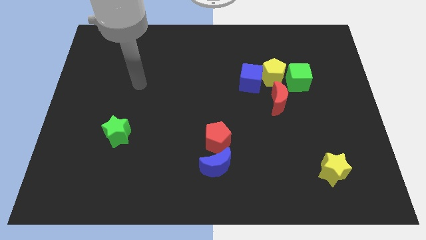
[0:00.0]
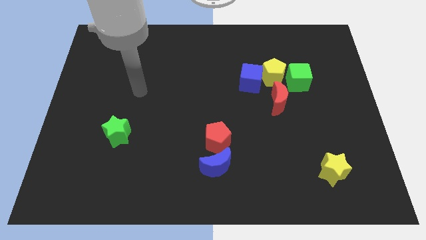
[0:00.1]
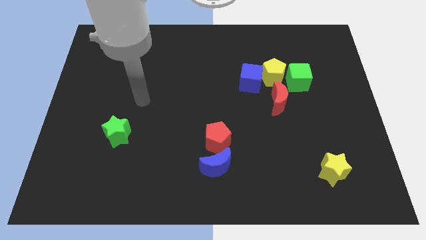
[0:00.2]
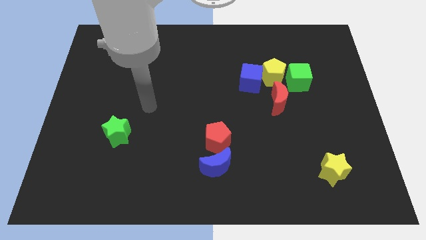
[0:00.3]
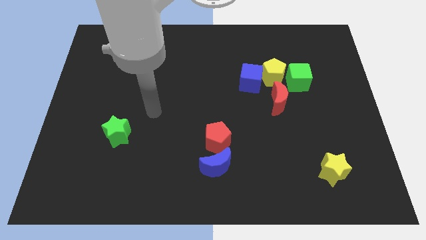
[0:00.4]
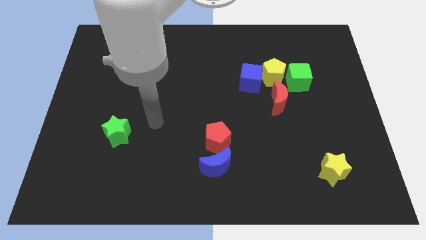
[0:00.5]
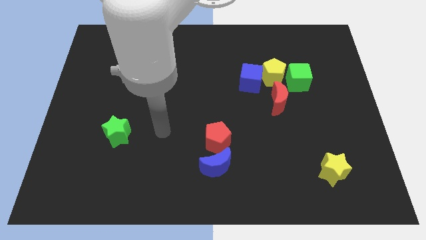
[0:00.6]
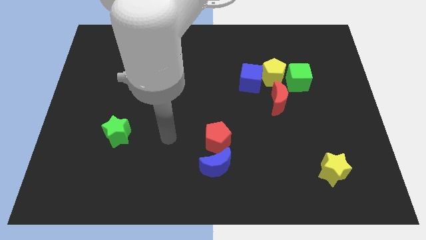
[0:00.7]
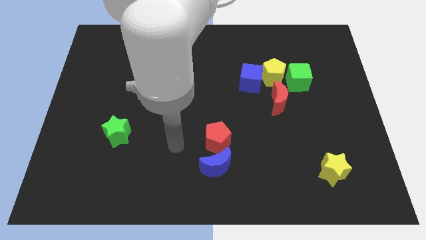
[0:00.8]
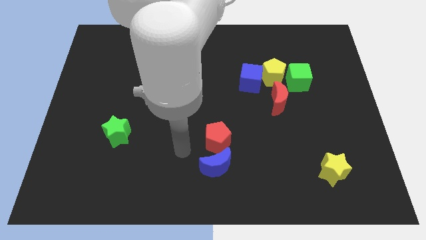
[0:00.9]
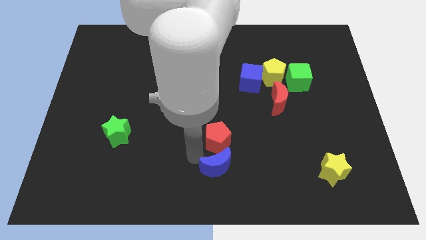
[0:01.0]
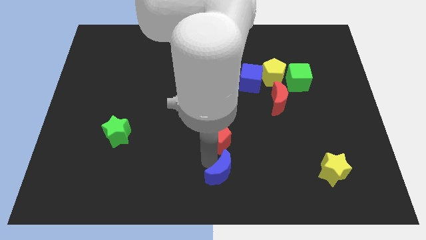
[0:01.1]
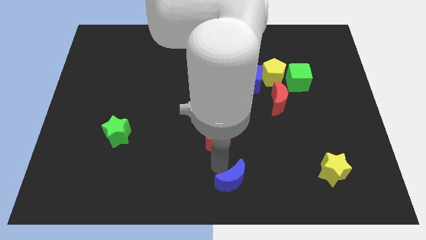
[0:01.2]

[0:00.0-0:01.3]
move the red pentagon away from the blue moon

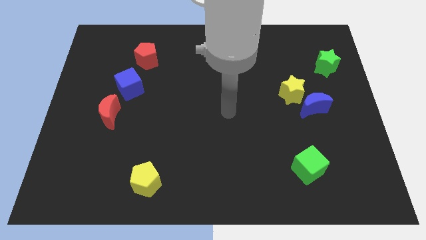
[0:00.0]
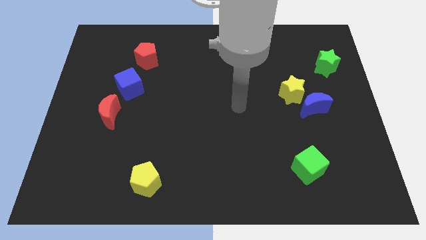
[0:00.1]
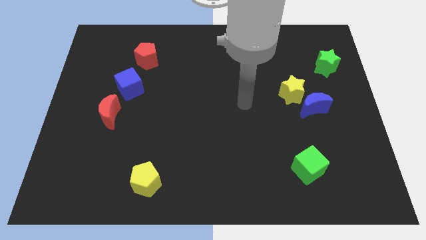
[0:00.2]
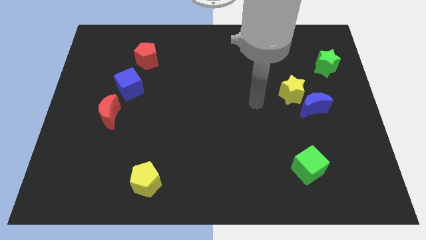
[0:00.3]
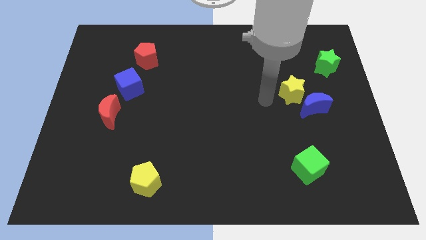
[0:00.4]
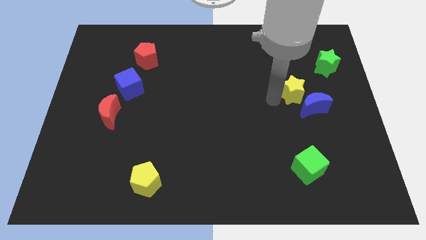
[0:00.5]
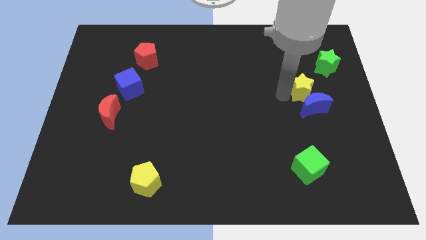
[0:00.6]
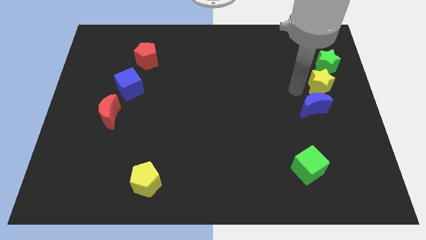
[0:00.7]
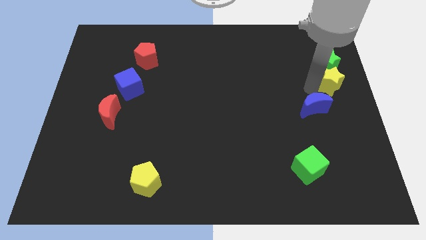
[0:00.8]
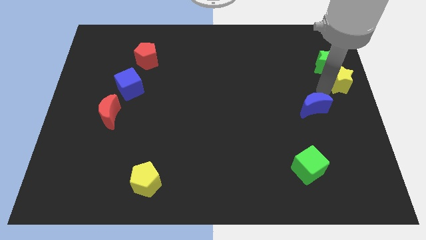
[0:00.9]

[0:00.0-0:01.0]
separate the blue moon from the yellow star

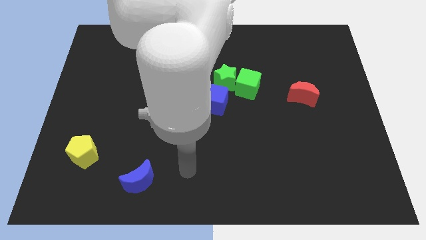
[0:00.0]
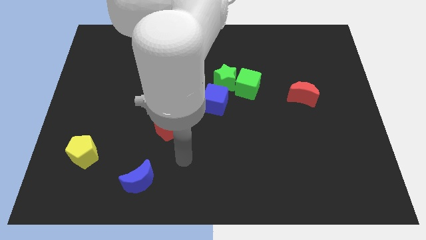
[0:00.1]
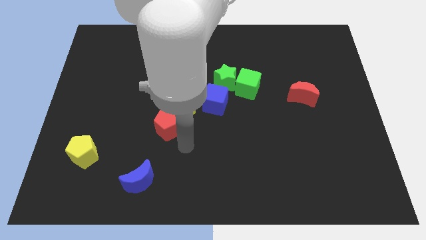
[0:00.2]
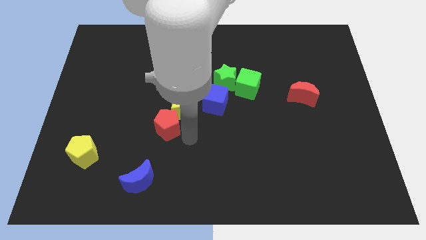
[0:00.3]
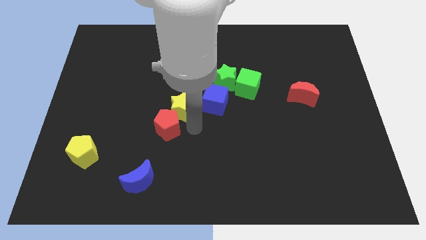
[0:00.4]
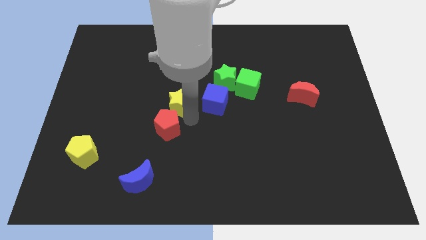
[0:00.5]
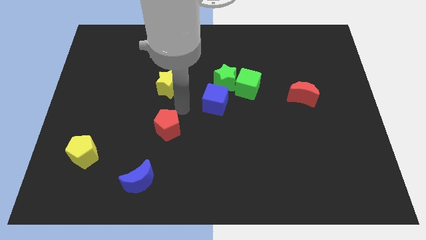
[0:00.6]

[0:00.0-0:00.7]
separate the red pentagon from the yellow star

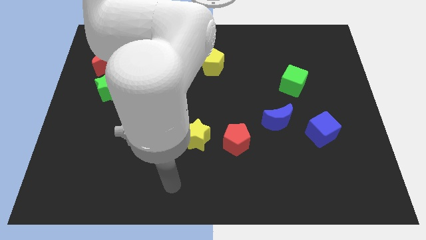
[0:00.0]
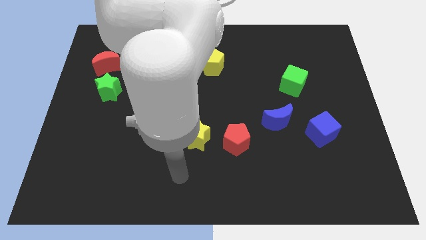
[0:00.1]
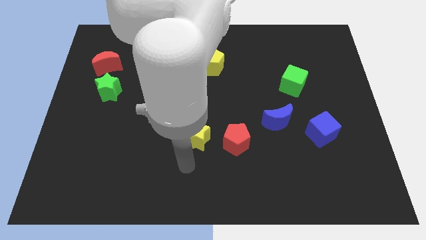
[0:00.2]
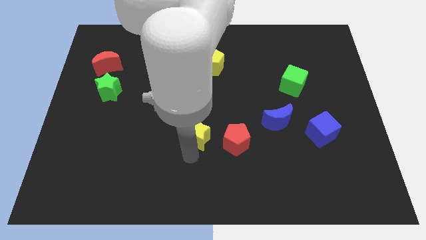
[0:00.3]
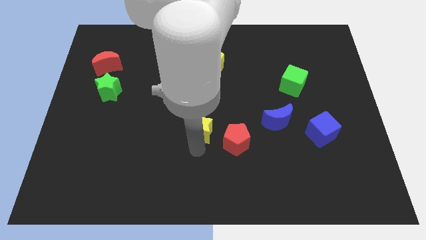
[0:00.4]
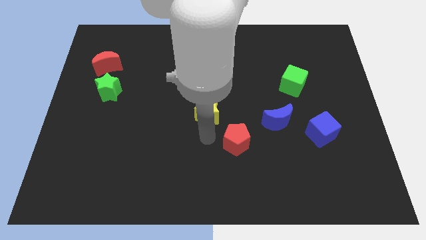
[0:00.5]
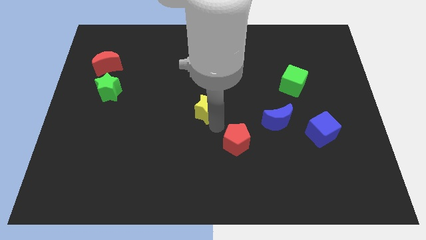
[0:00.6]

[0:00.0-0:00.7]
pull the red pentagon apart from the yellow star

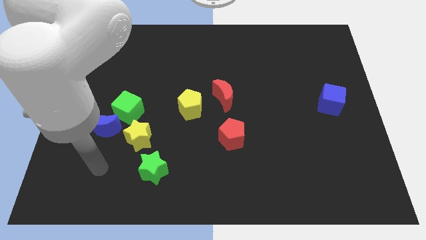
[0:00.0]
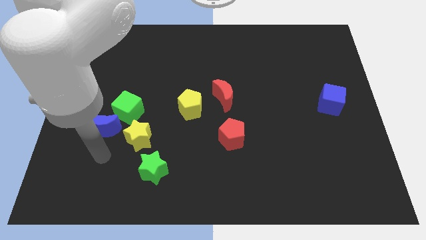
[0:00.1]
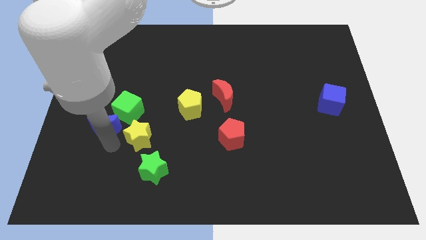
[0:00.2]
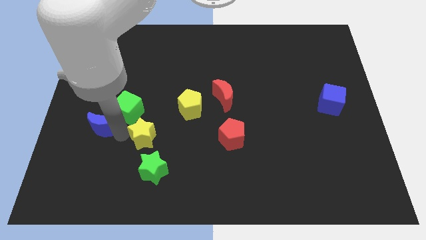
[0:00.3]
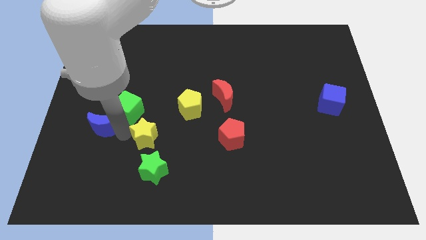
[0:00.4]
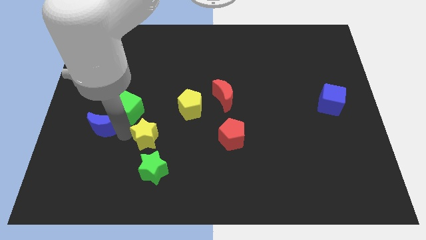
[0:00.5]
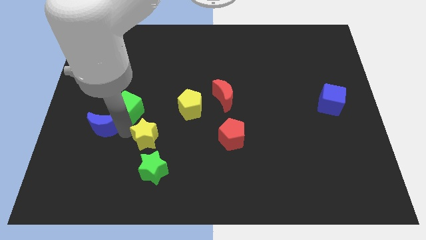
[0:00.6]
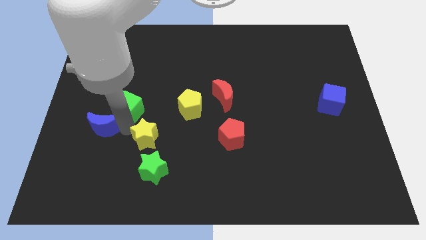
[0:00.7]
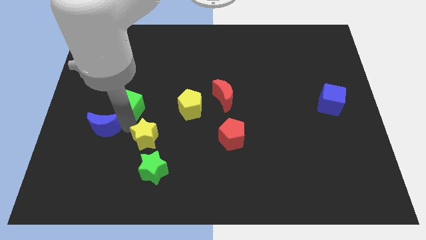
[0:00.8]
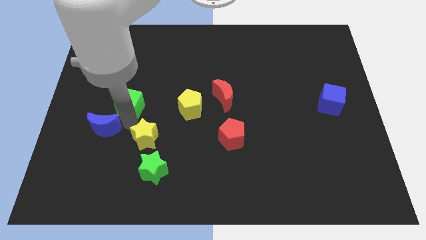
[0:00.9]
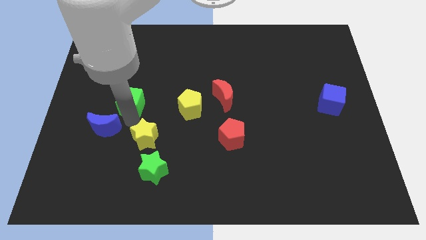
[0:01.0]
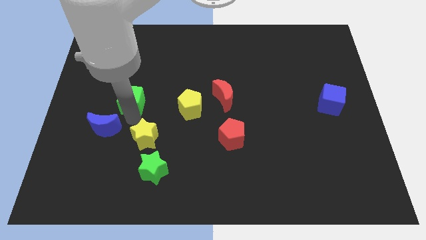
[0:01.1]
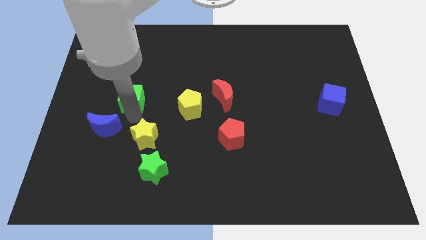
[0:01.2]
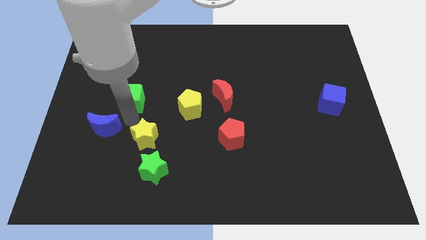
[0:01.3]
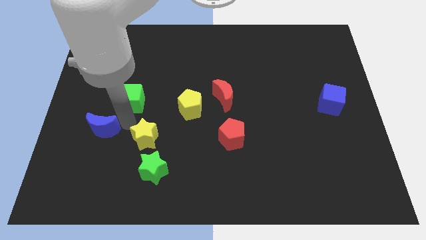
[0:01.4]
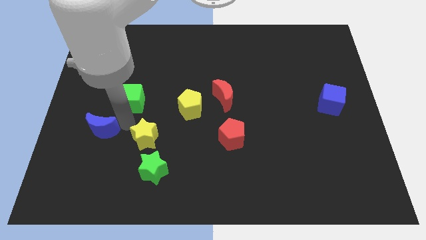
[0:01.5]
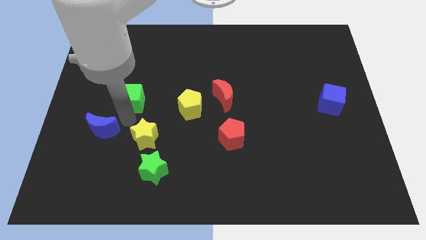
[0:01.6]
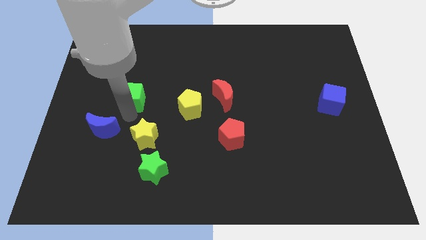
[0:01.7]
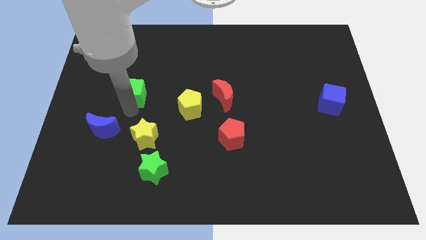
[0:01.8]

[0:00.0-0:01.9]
move the green cube away from the blue moon and yellow star

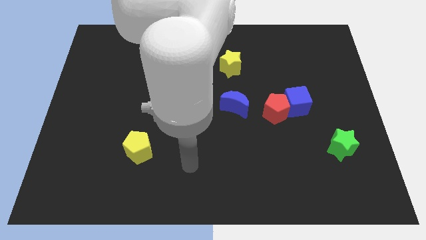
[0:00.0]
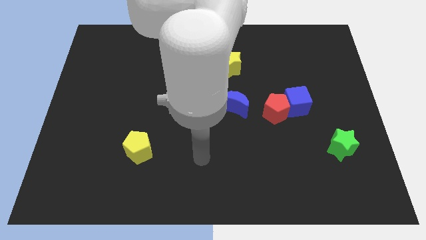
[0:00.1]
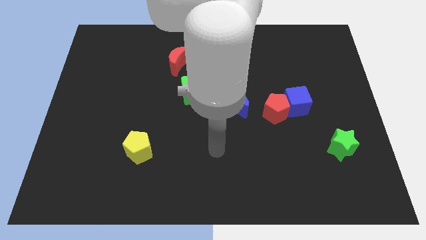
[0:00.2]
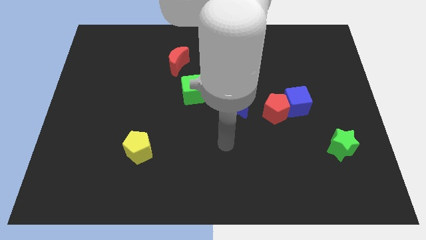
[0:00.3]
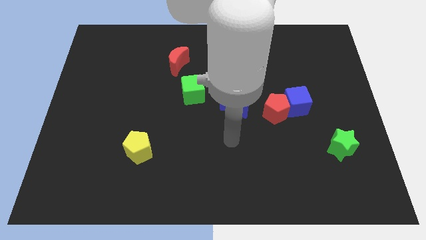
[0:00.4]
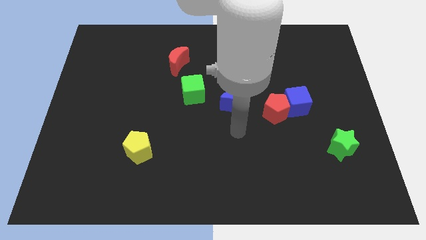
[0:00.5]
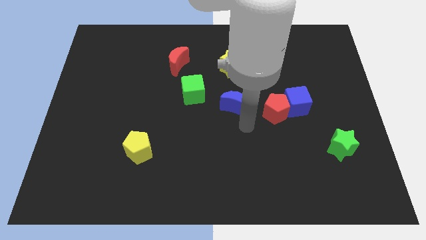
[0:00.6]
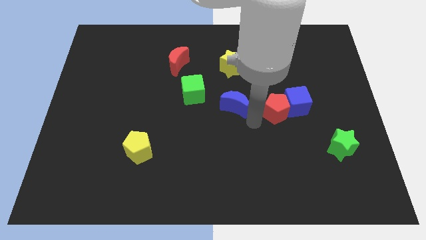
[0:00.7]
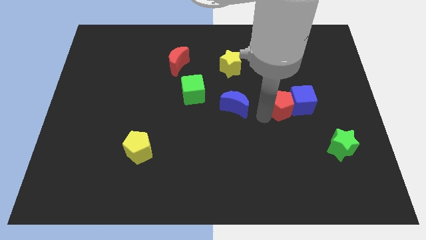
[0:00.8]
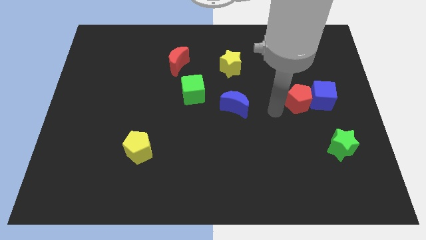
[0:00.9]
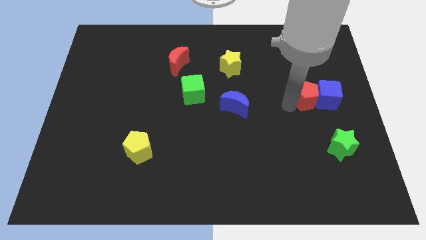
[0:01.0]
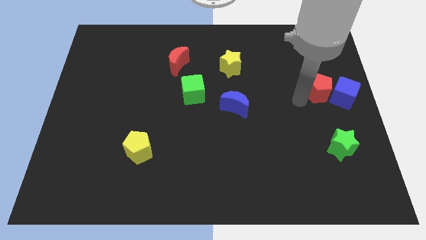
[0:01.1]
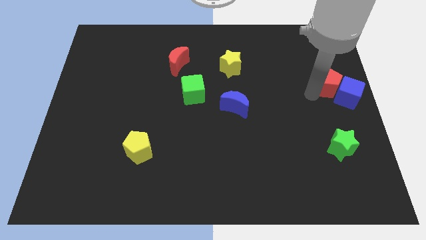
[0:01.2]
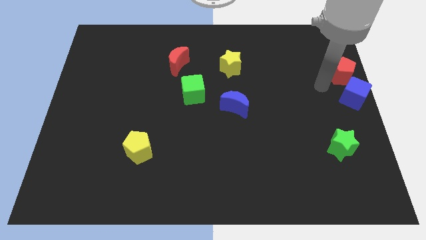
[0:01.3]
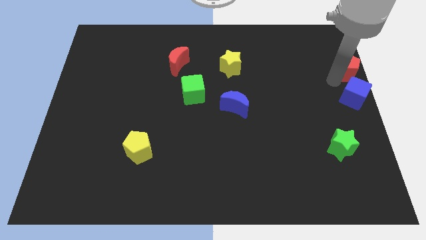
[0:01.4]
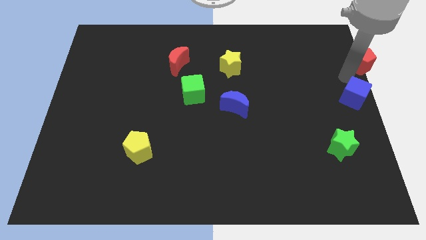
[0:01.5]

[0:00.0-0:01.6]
separate the blue cube from the red pentagon

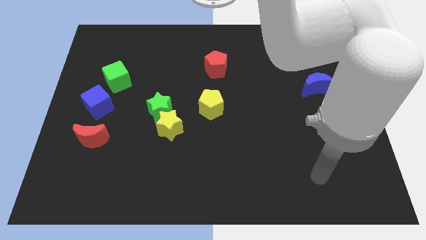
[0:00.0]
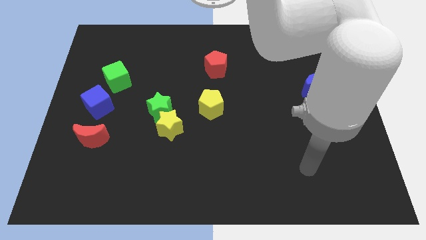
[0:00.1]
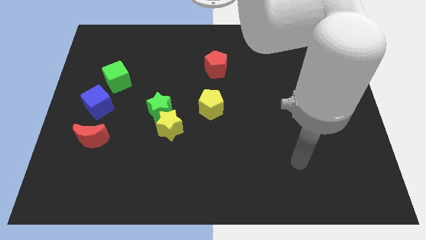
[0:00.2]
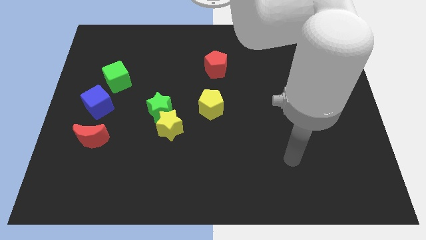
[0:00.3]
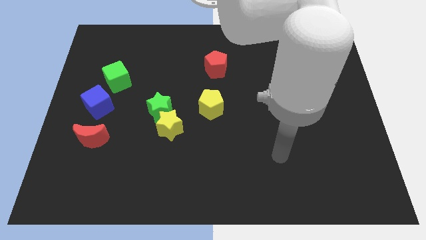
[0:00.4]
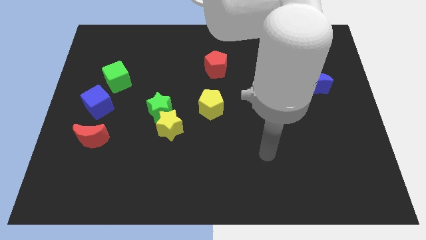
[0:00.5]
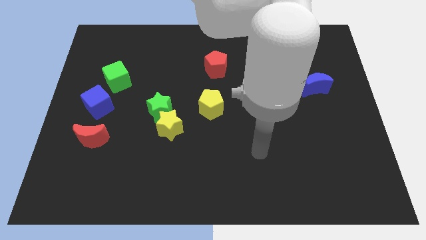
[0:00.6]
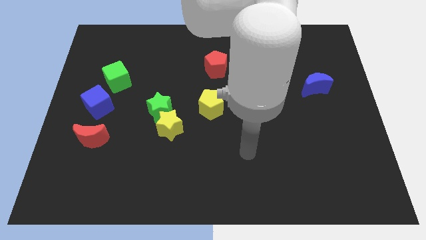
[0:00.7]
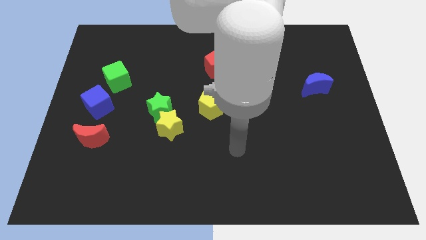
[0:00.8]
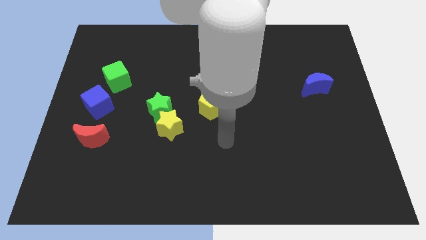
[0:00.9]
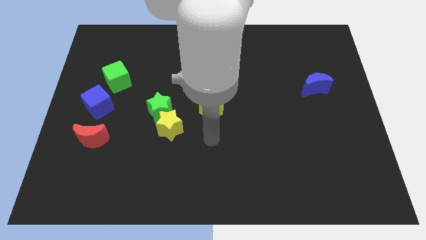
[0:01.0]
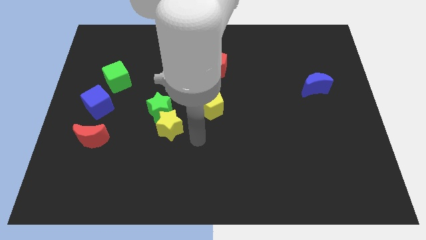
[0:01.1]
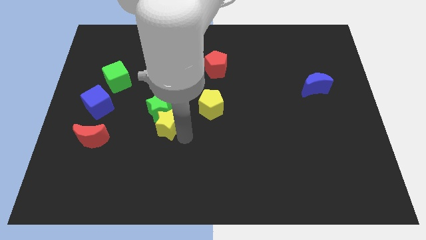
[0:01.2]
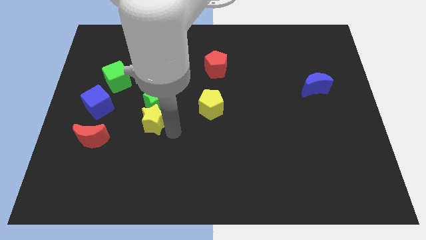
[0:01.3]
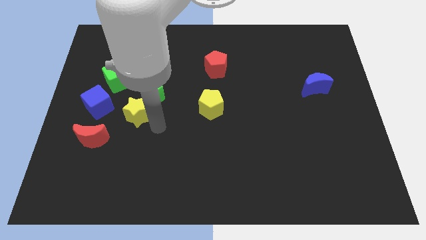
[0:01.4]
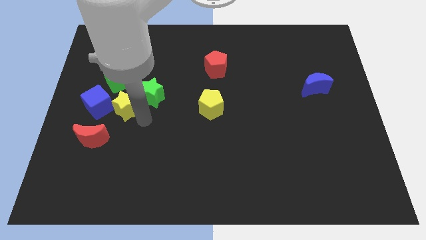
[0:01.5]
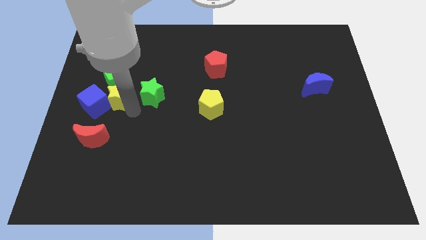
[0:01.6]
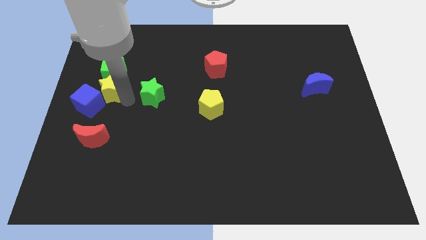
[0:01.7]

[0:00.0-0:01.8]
separate the green star from the yellow star

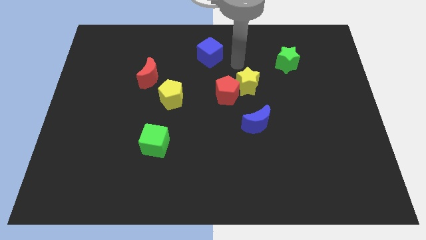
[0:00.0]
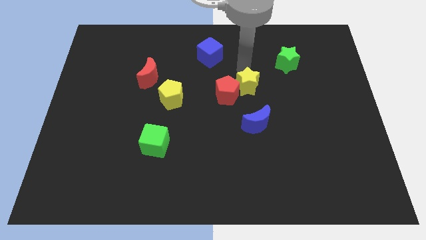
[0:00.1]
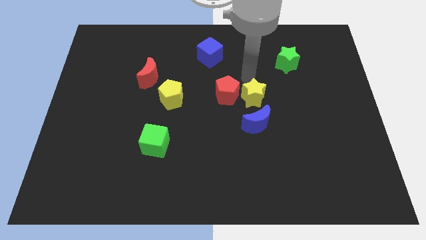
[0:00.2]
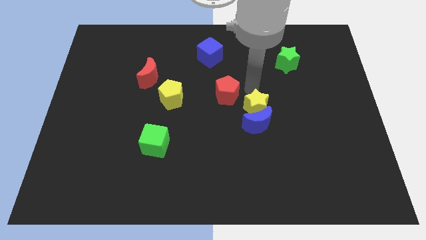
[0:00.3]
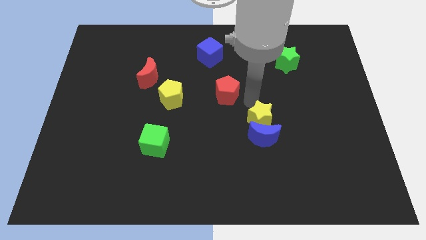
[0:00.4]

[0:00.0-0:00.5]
move the red pentagon away from the yellow star
